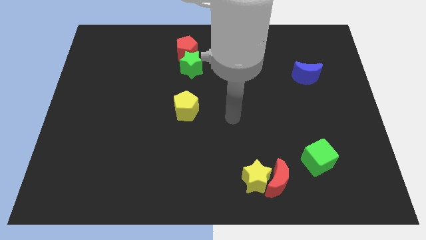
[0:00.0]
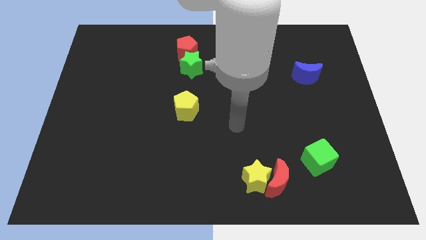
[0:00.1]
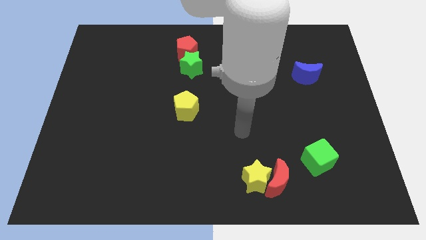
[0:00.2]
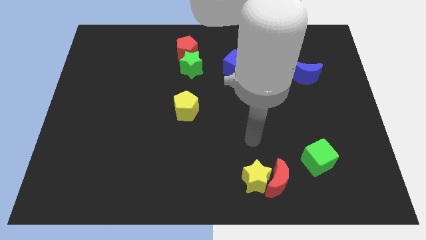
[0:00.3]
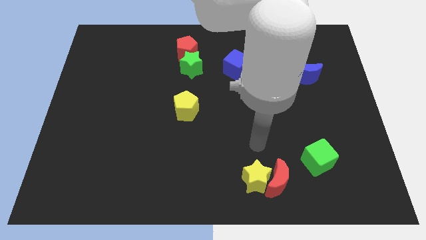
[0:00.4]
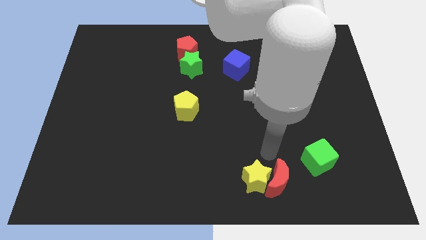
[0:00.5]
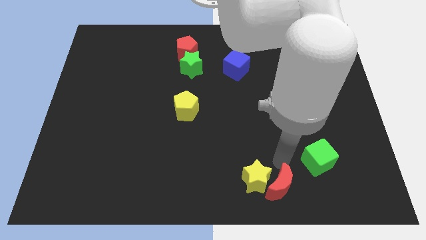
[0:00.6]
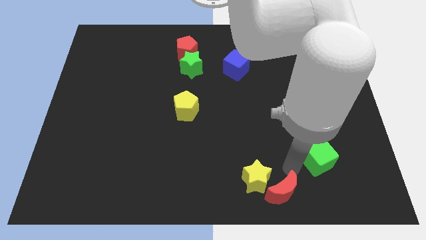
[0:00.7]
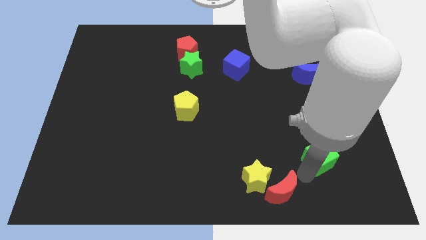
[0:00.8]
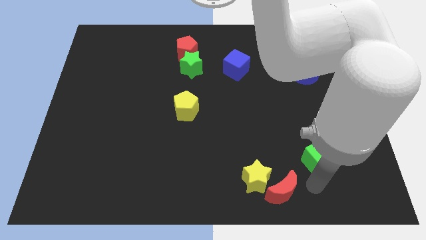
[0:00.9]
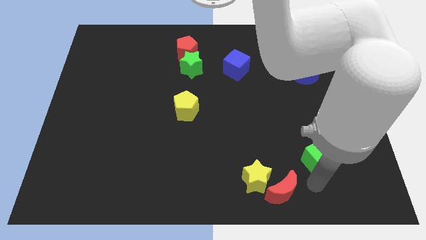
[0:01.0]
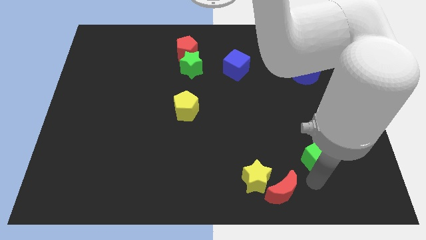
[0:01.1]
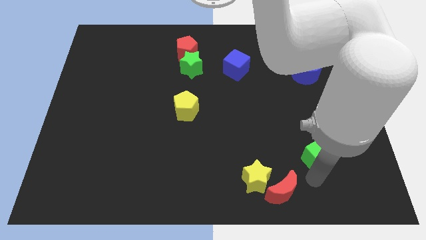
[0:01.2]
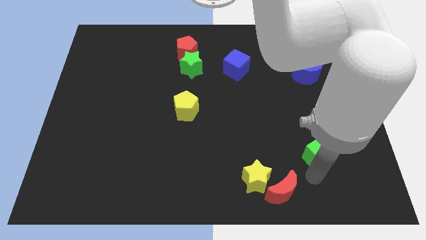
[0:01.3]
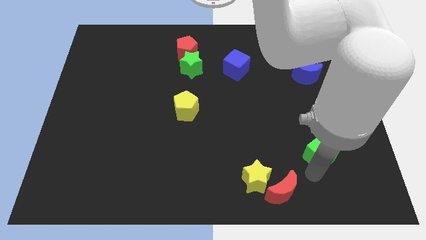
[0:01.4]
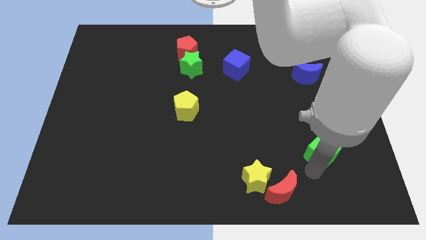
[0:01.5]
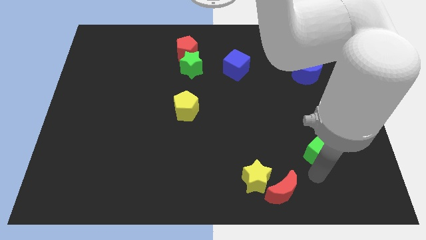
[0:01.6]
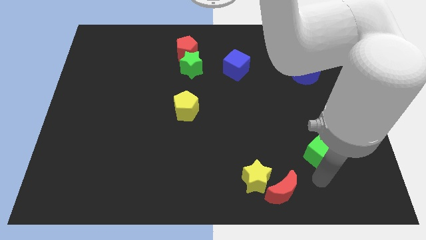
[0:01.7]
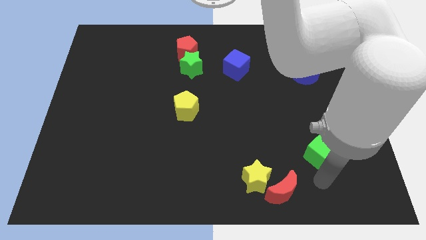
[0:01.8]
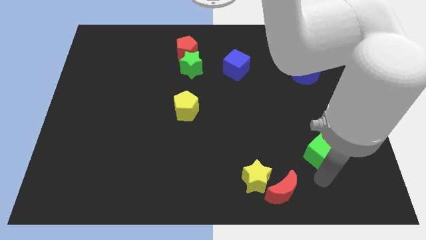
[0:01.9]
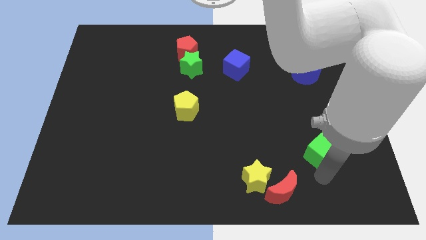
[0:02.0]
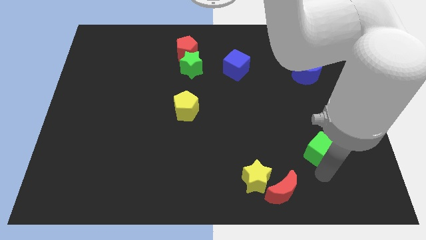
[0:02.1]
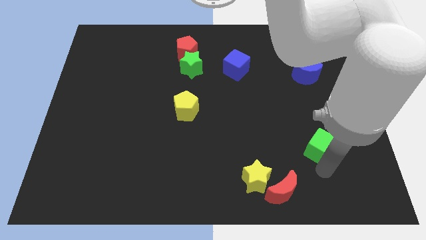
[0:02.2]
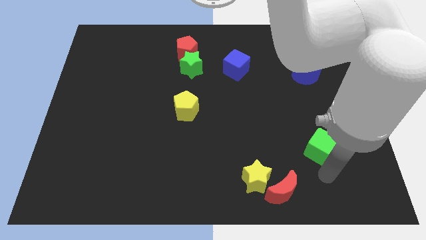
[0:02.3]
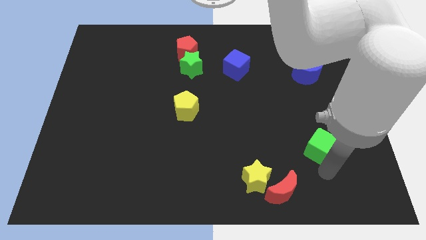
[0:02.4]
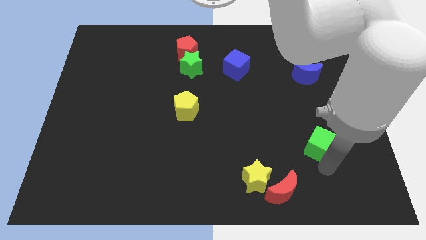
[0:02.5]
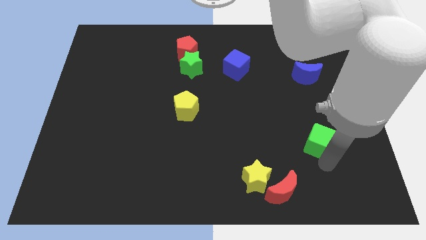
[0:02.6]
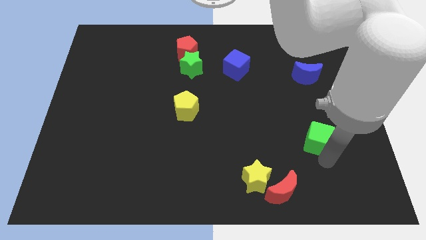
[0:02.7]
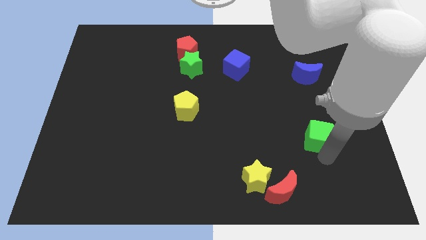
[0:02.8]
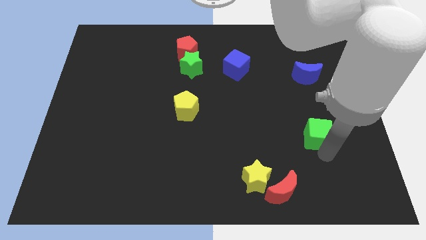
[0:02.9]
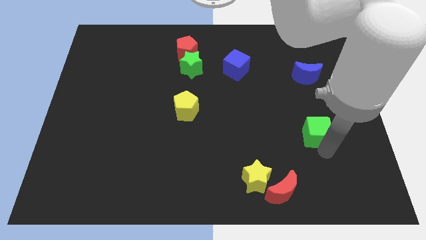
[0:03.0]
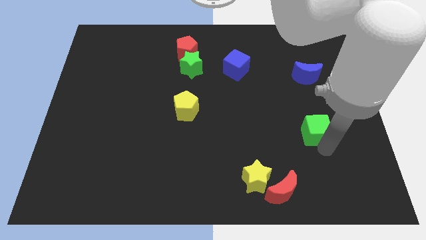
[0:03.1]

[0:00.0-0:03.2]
slightly move the green cube up

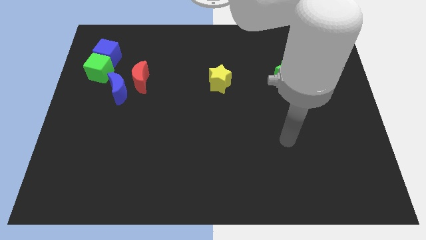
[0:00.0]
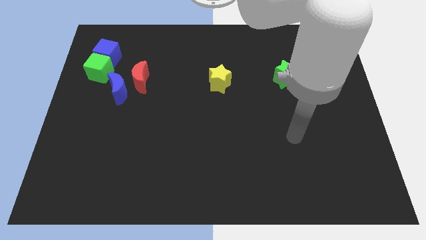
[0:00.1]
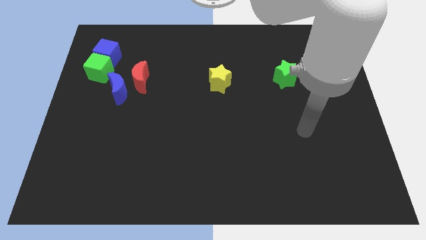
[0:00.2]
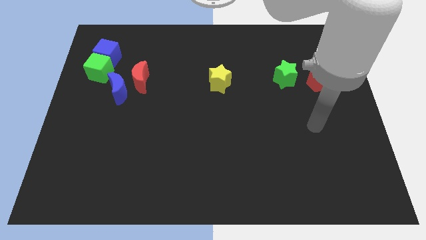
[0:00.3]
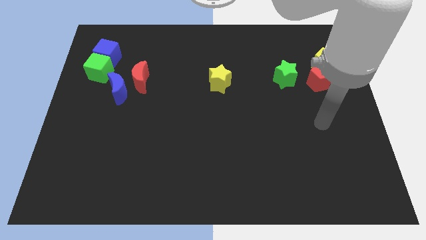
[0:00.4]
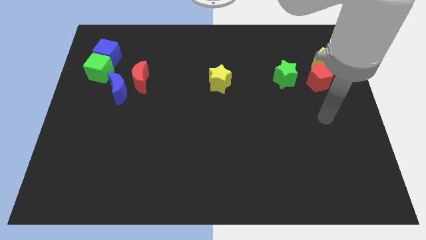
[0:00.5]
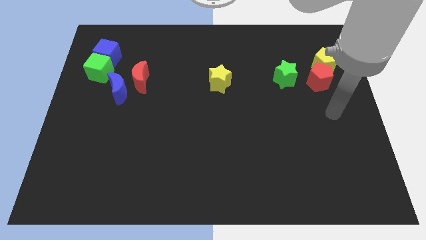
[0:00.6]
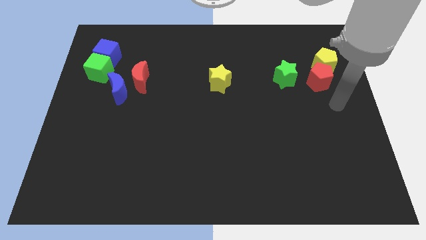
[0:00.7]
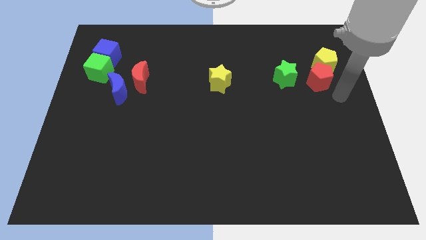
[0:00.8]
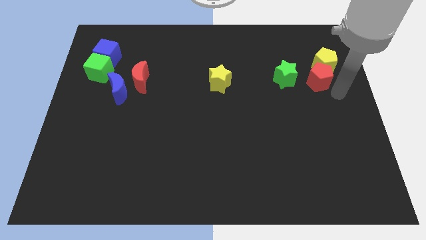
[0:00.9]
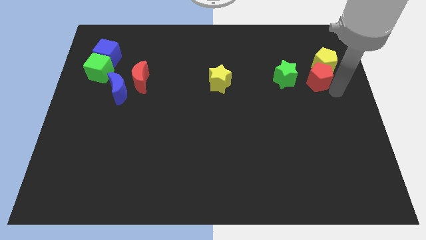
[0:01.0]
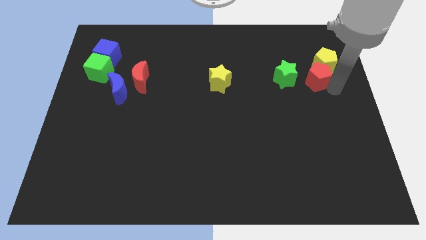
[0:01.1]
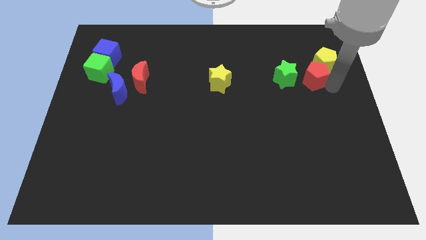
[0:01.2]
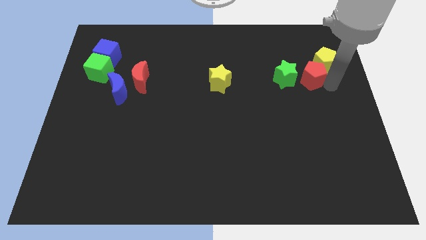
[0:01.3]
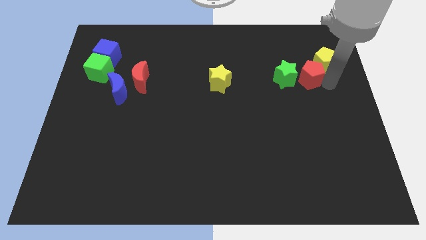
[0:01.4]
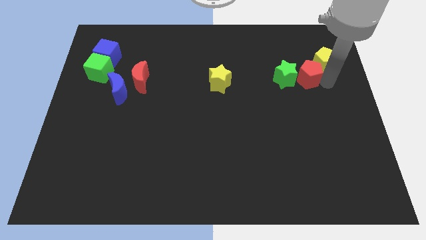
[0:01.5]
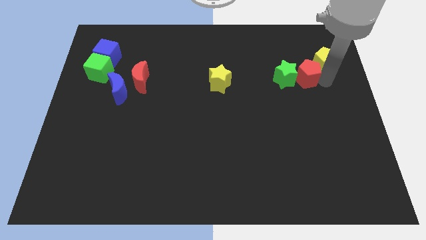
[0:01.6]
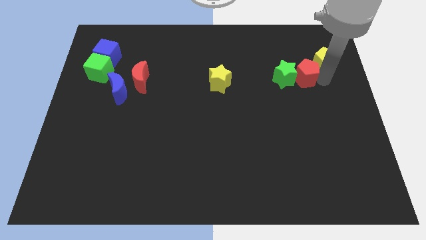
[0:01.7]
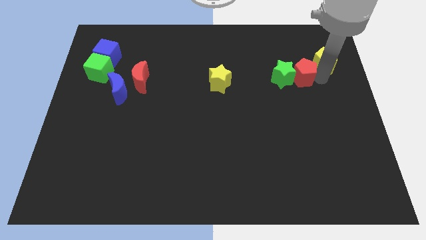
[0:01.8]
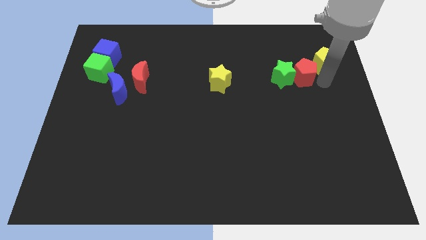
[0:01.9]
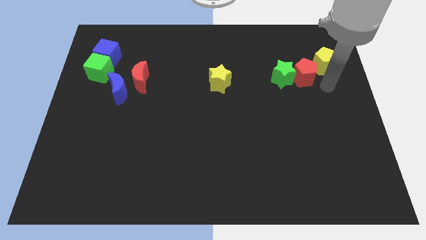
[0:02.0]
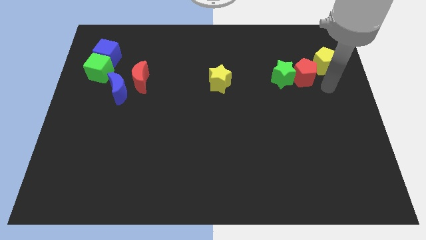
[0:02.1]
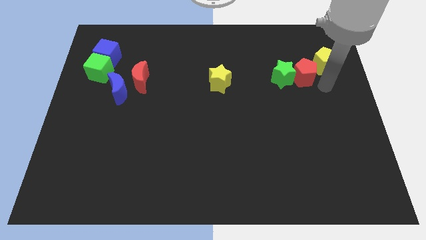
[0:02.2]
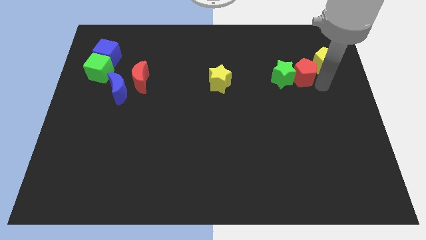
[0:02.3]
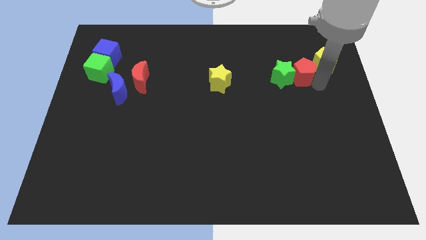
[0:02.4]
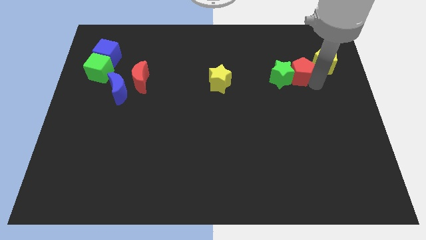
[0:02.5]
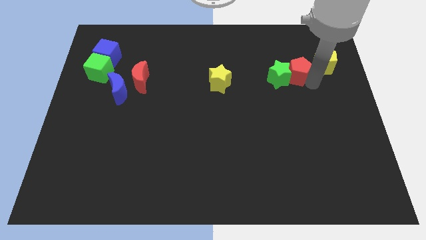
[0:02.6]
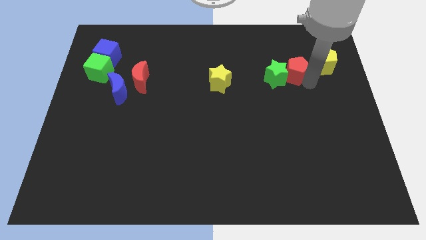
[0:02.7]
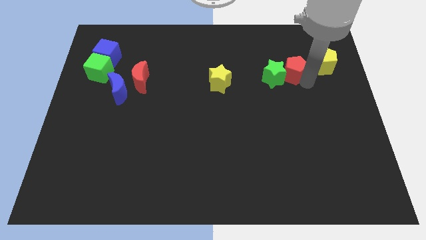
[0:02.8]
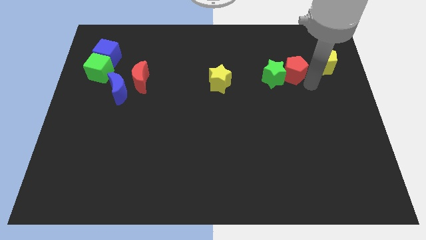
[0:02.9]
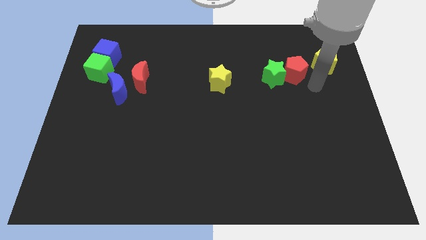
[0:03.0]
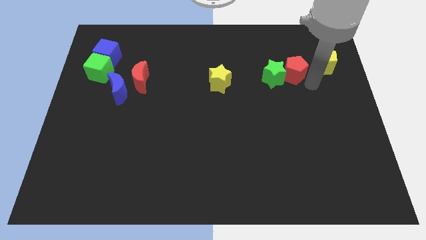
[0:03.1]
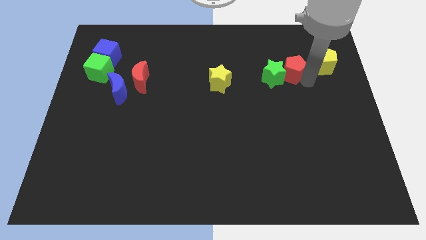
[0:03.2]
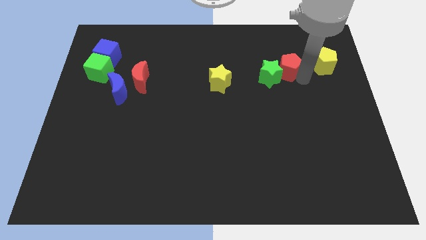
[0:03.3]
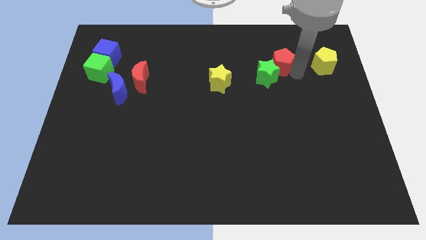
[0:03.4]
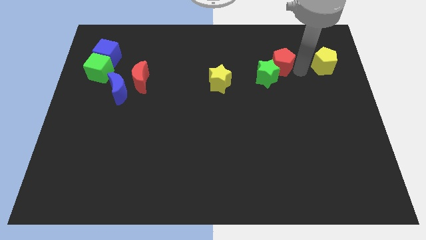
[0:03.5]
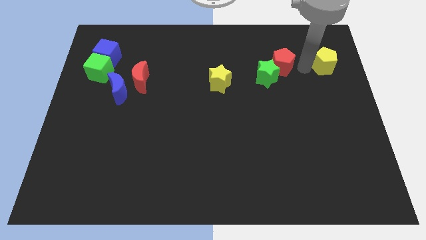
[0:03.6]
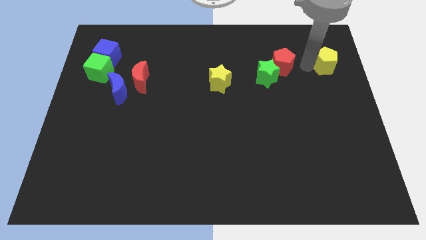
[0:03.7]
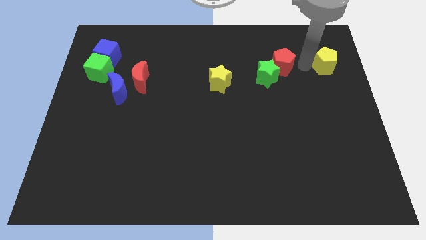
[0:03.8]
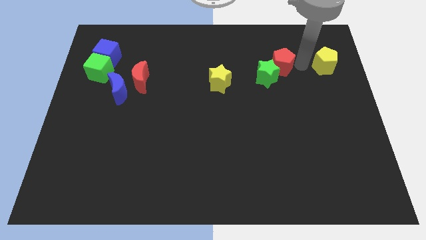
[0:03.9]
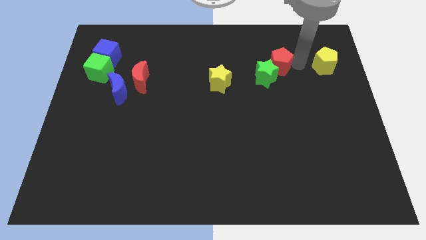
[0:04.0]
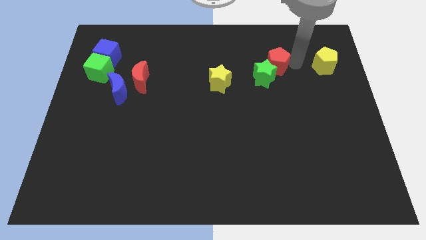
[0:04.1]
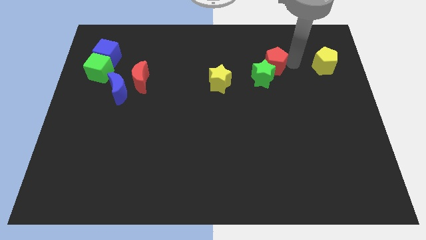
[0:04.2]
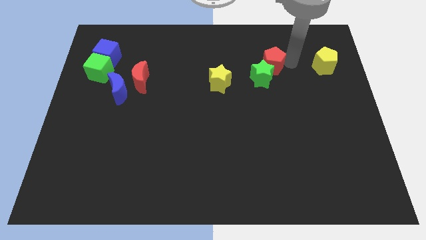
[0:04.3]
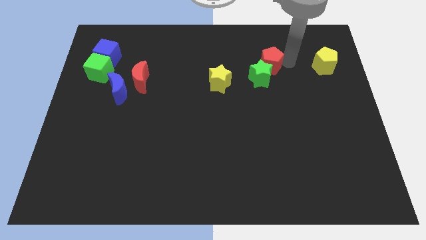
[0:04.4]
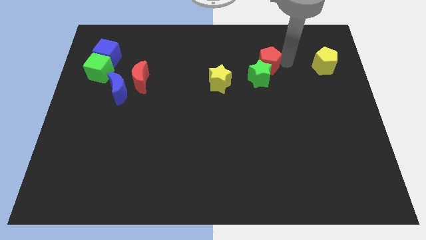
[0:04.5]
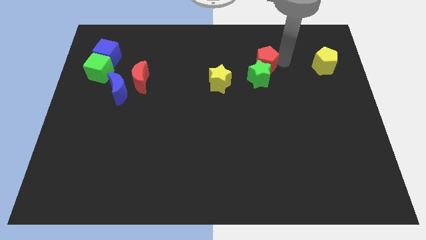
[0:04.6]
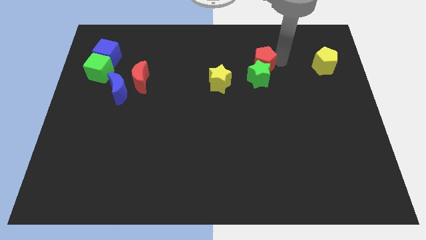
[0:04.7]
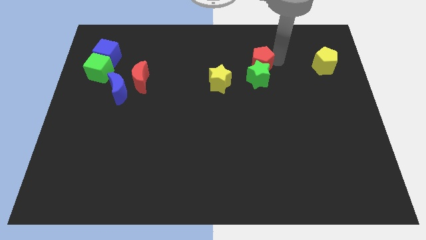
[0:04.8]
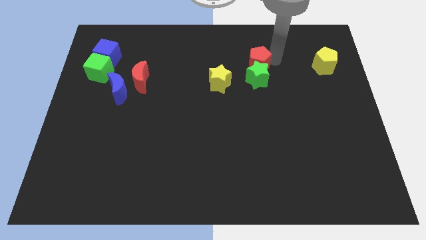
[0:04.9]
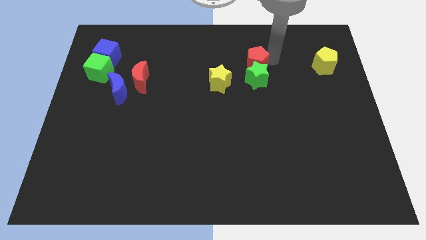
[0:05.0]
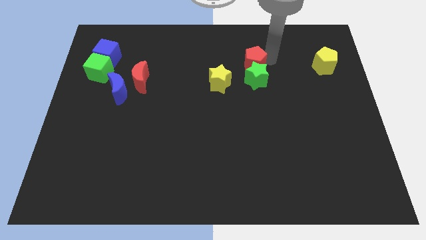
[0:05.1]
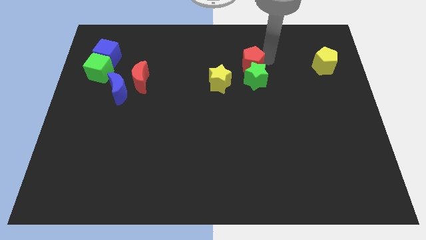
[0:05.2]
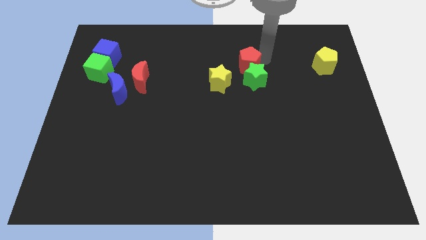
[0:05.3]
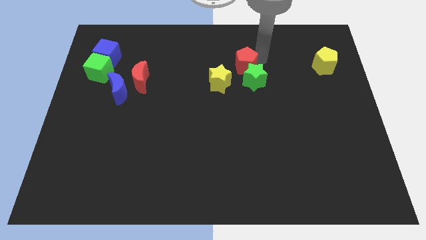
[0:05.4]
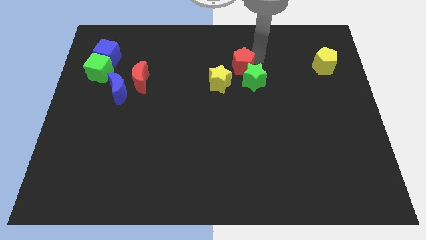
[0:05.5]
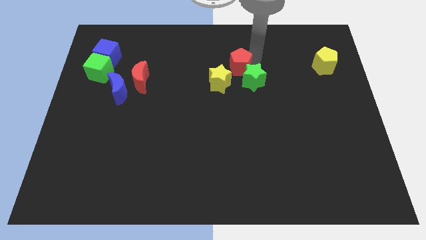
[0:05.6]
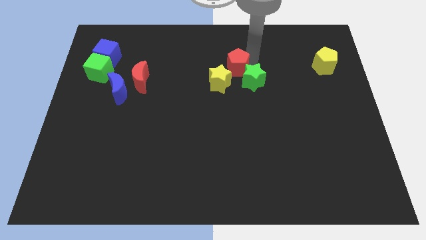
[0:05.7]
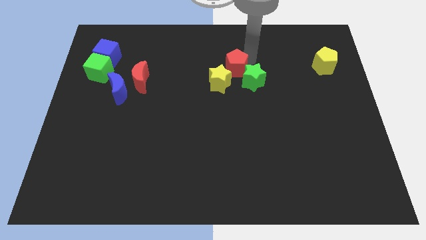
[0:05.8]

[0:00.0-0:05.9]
slide the red pentagon left
